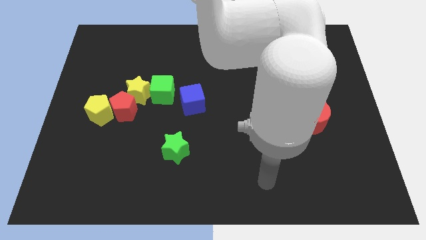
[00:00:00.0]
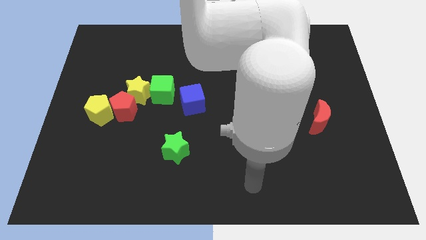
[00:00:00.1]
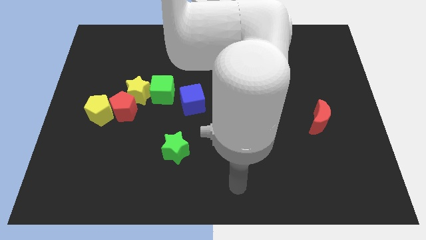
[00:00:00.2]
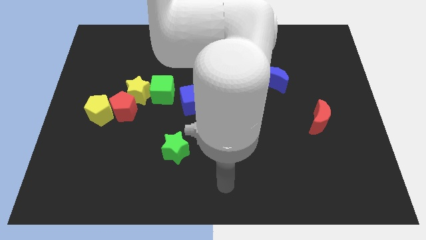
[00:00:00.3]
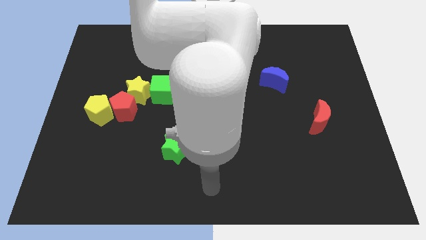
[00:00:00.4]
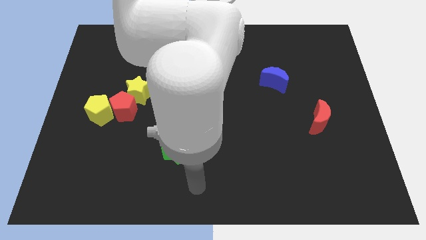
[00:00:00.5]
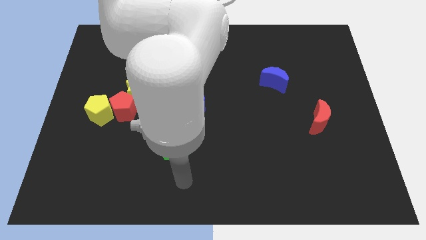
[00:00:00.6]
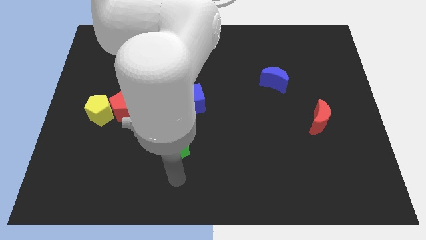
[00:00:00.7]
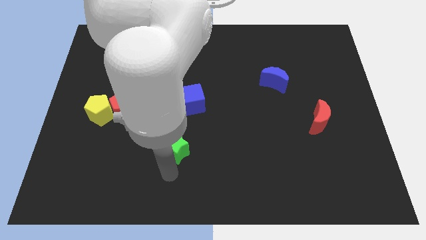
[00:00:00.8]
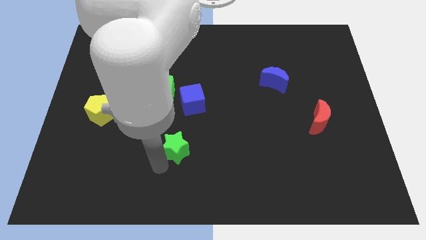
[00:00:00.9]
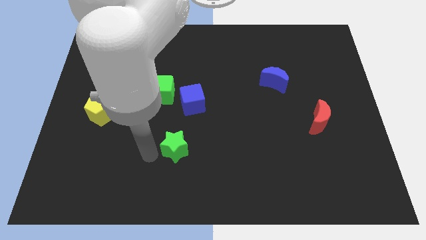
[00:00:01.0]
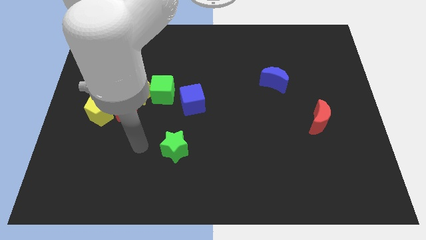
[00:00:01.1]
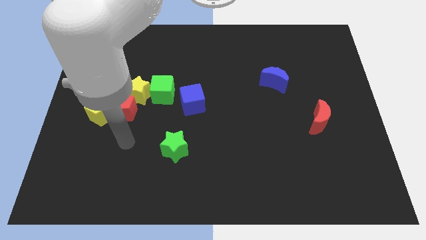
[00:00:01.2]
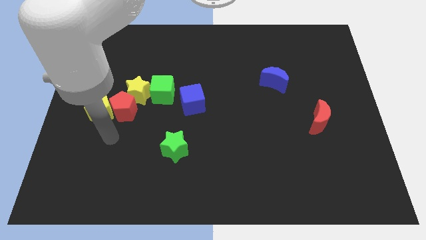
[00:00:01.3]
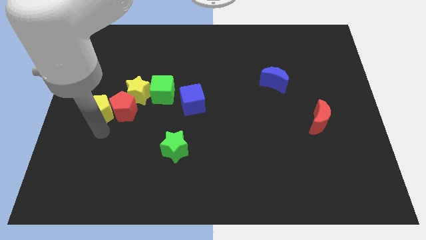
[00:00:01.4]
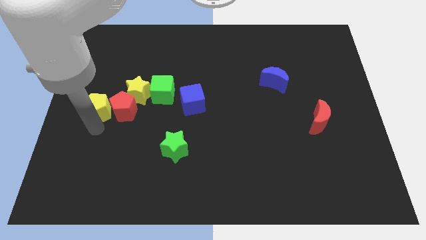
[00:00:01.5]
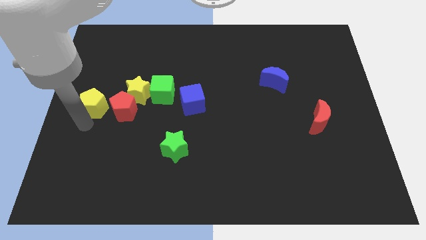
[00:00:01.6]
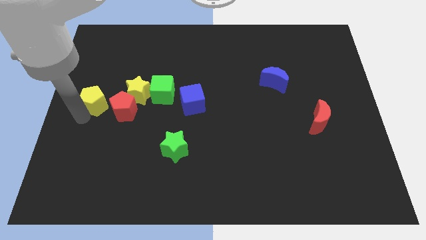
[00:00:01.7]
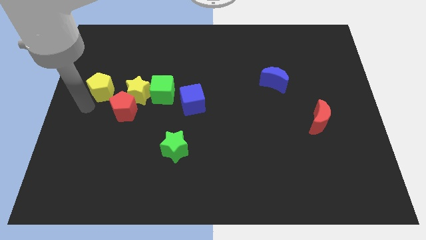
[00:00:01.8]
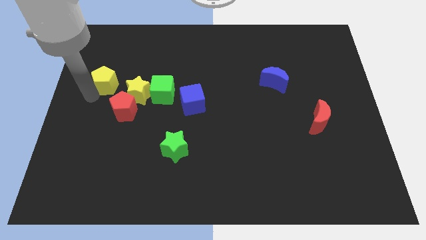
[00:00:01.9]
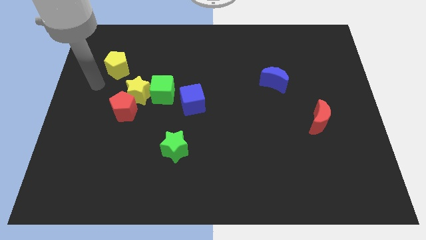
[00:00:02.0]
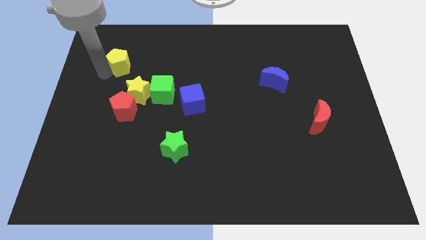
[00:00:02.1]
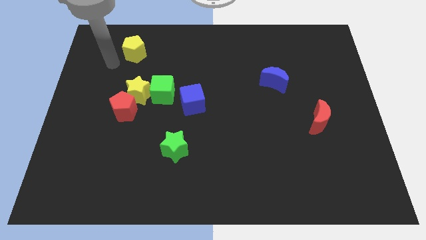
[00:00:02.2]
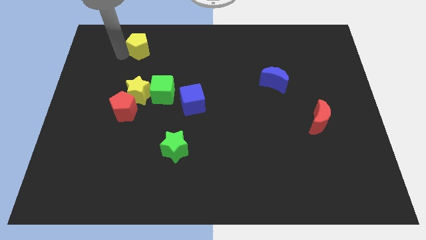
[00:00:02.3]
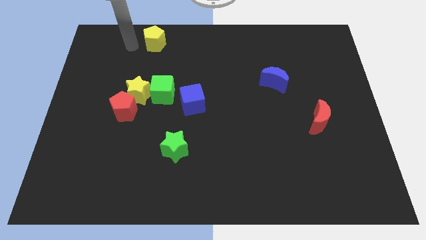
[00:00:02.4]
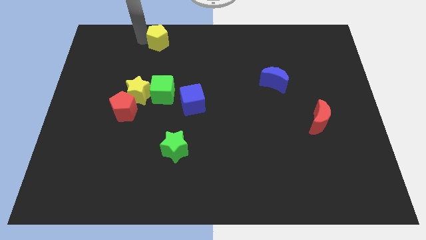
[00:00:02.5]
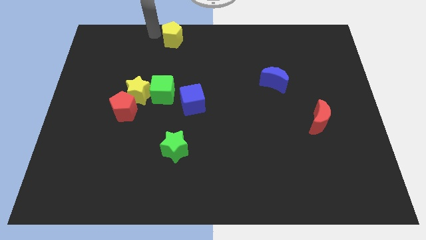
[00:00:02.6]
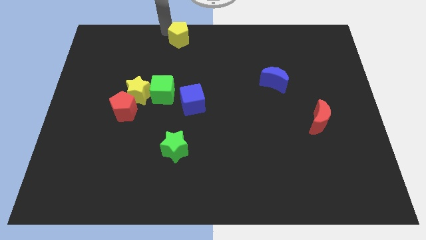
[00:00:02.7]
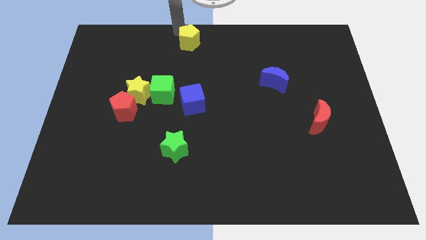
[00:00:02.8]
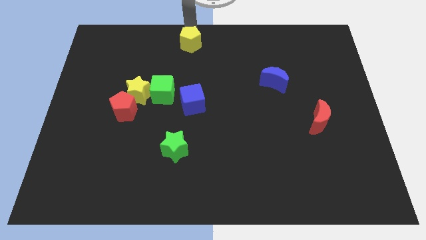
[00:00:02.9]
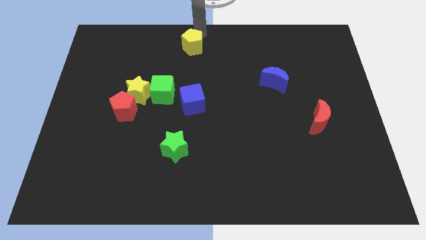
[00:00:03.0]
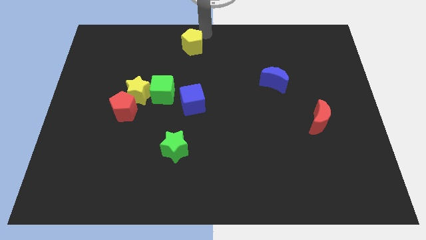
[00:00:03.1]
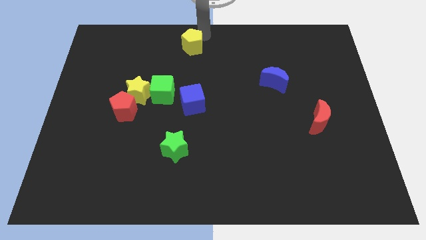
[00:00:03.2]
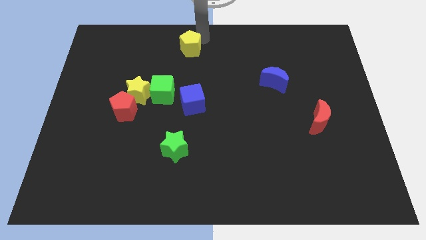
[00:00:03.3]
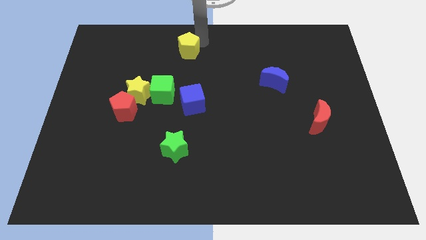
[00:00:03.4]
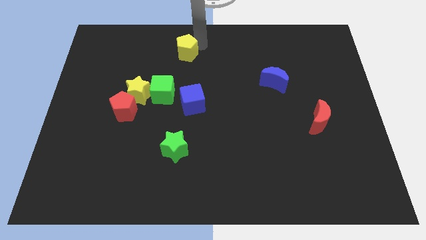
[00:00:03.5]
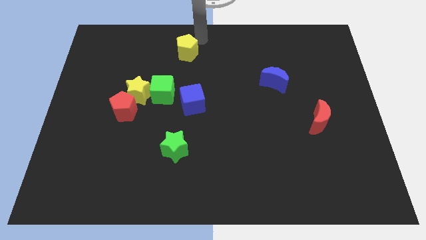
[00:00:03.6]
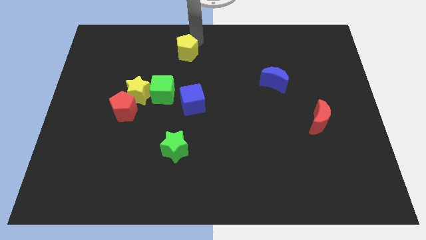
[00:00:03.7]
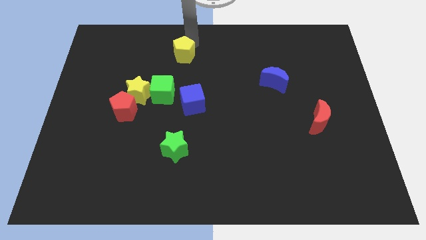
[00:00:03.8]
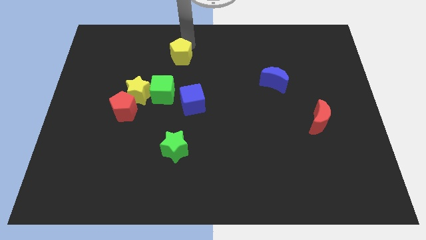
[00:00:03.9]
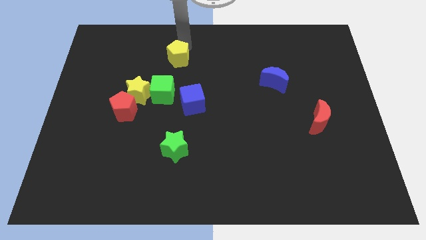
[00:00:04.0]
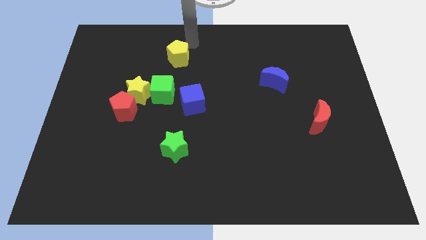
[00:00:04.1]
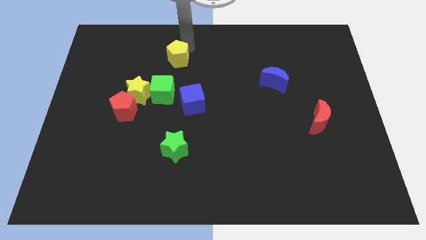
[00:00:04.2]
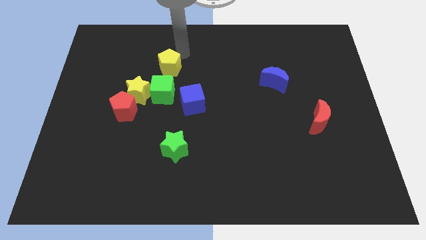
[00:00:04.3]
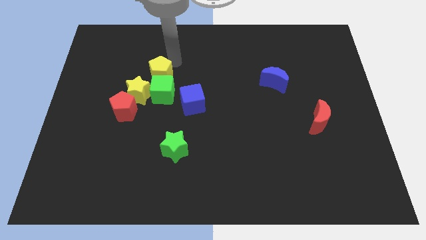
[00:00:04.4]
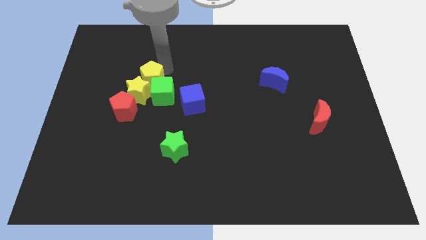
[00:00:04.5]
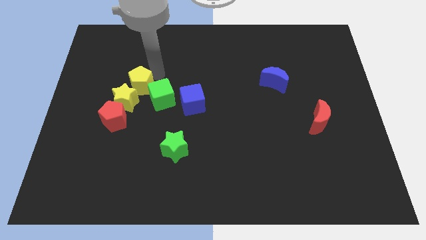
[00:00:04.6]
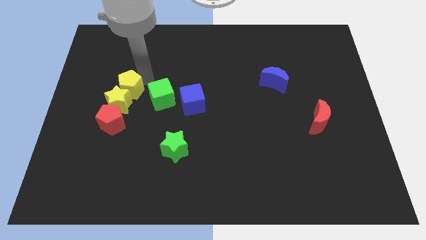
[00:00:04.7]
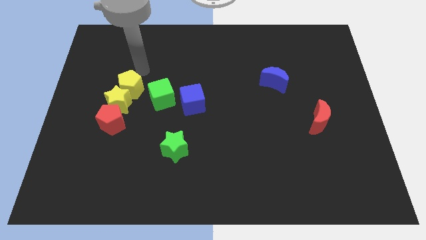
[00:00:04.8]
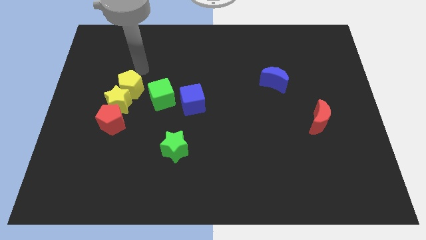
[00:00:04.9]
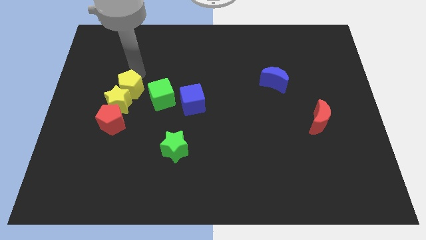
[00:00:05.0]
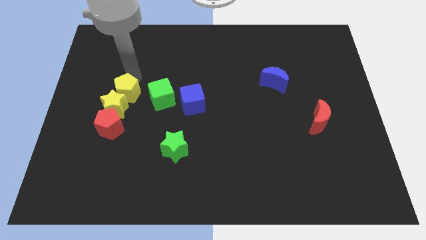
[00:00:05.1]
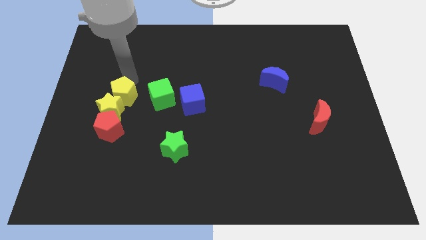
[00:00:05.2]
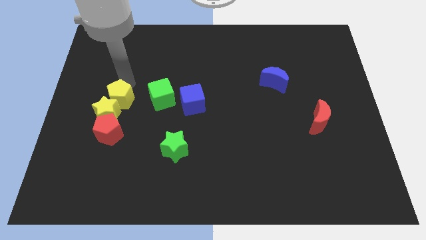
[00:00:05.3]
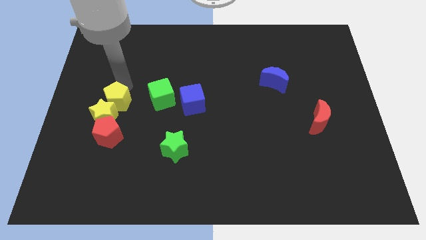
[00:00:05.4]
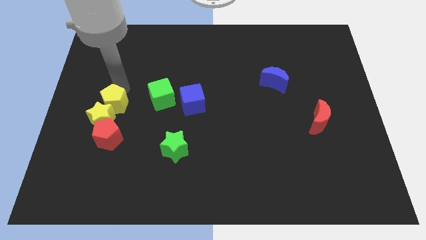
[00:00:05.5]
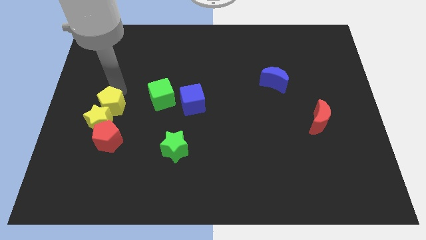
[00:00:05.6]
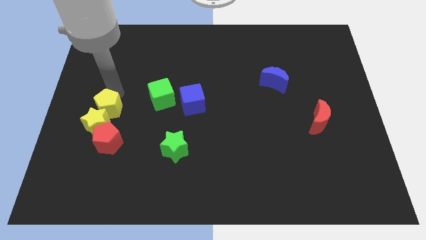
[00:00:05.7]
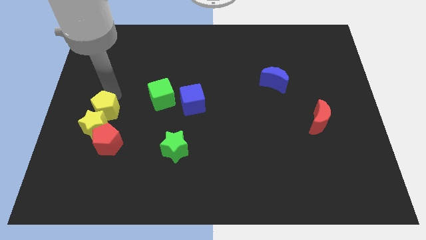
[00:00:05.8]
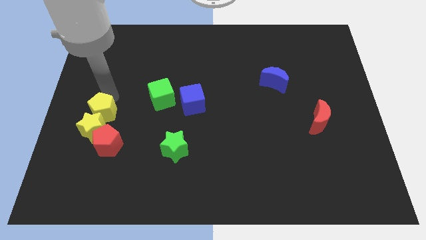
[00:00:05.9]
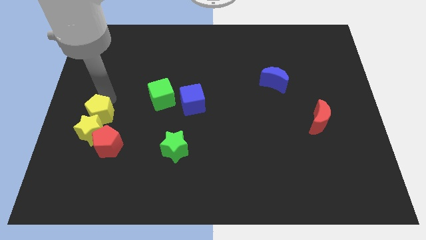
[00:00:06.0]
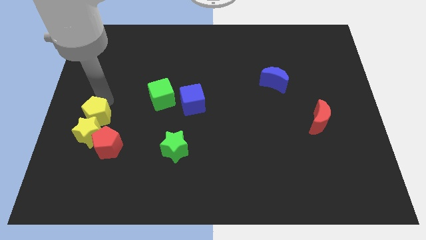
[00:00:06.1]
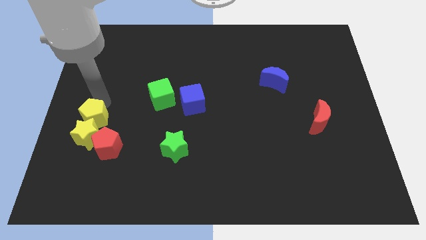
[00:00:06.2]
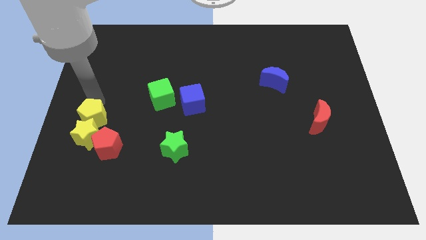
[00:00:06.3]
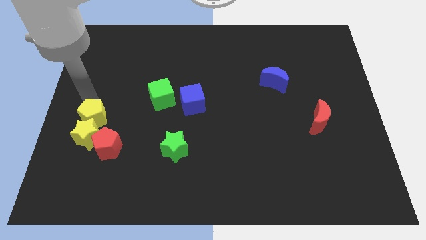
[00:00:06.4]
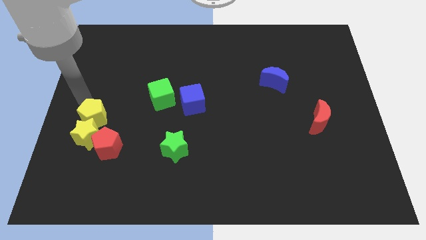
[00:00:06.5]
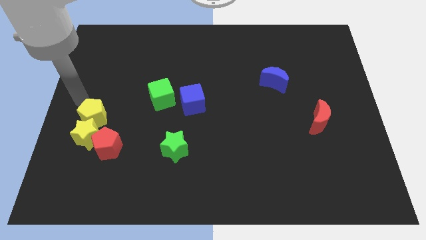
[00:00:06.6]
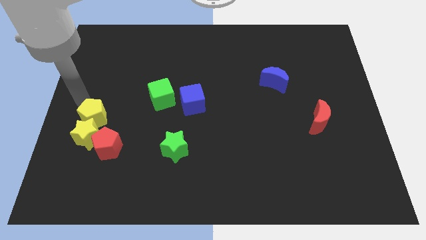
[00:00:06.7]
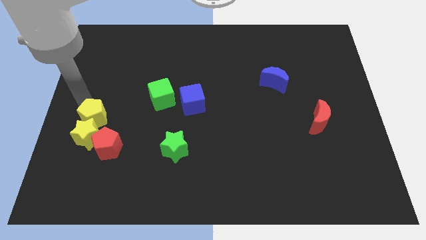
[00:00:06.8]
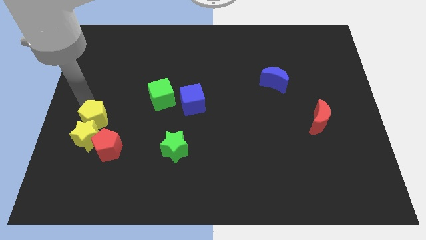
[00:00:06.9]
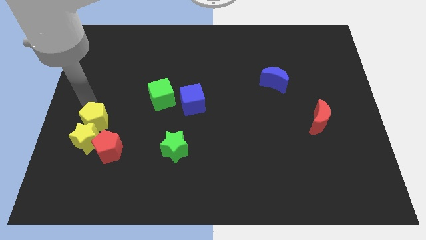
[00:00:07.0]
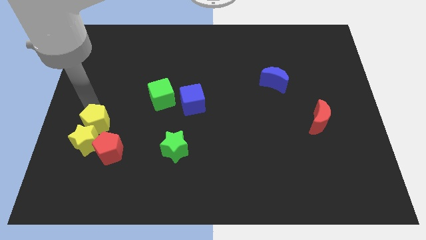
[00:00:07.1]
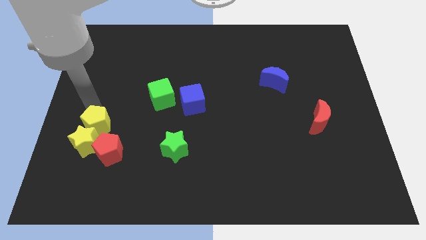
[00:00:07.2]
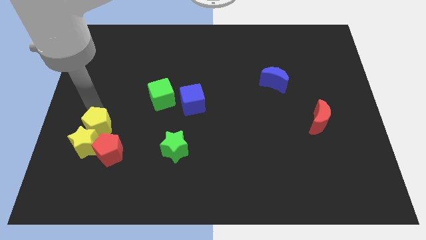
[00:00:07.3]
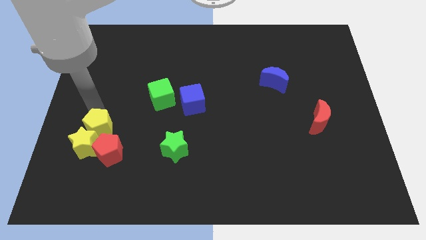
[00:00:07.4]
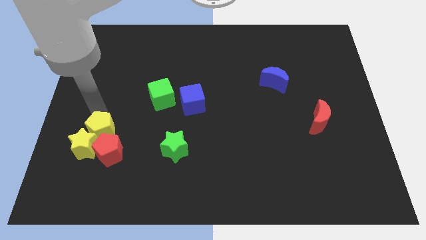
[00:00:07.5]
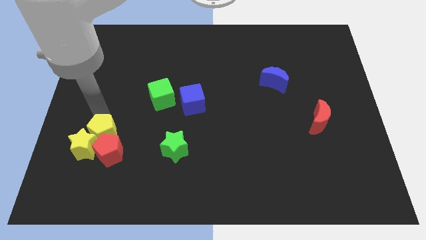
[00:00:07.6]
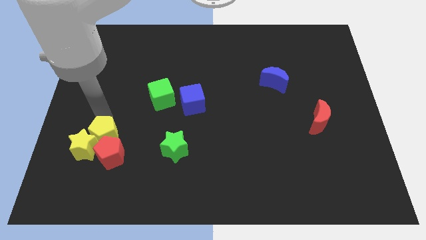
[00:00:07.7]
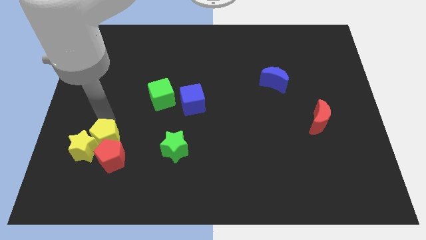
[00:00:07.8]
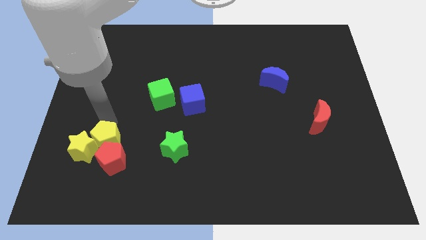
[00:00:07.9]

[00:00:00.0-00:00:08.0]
slightly push the yellow pentagon downwards and to the right diagonally

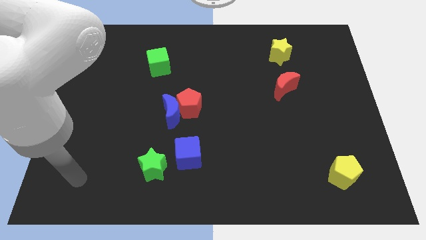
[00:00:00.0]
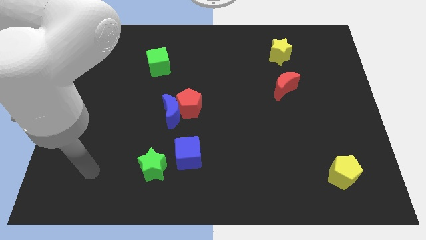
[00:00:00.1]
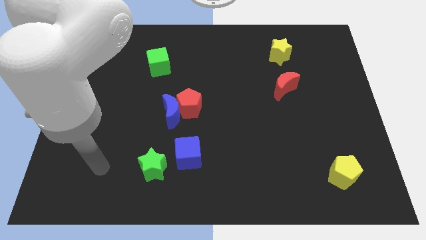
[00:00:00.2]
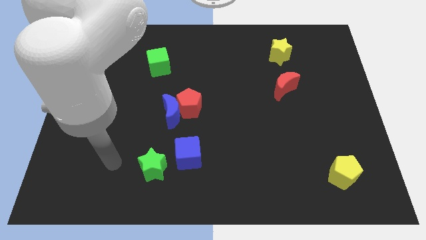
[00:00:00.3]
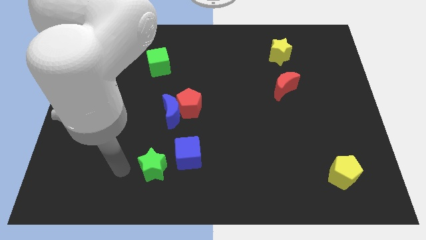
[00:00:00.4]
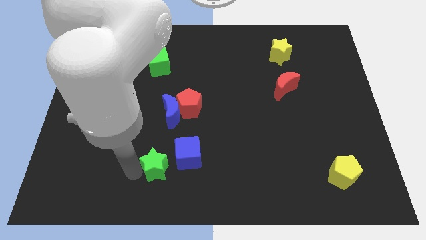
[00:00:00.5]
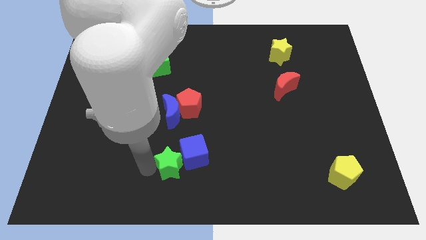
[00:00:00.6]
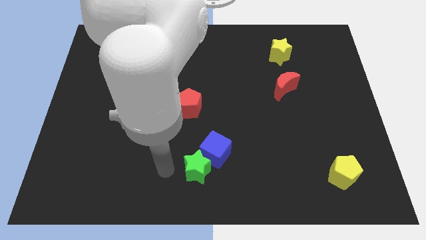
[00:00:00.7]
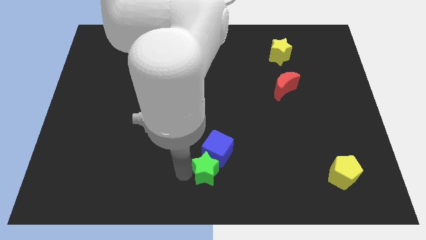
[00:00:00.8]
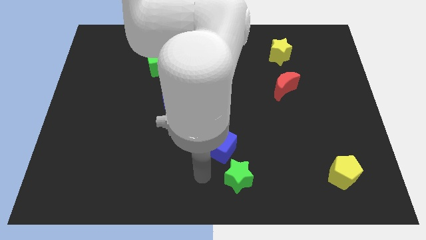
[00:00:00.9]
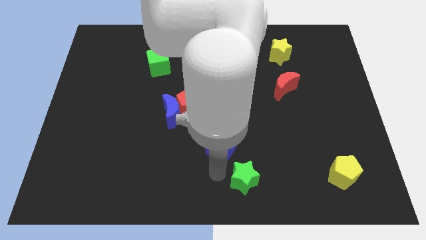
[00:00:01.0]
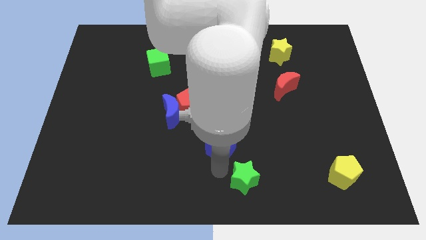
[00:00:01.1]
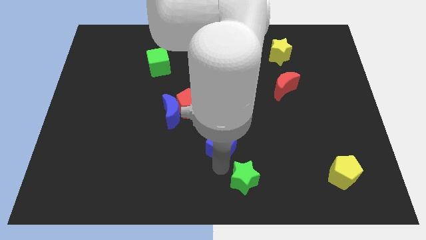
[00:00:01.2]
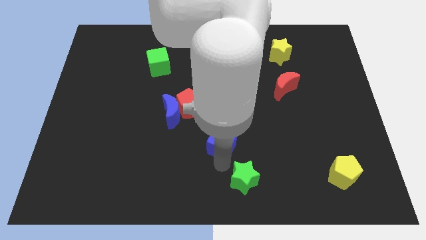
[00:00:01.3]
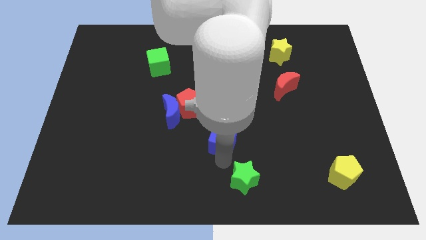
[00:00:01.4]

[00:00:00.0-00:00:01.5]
slightly move the blue cube up and then to the right
